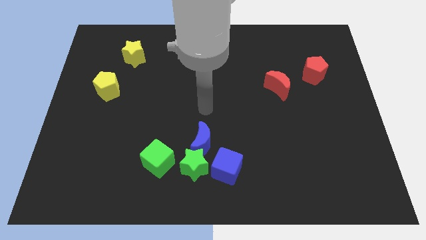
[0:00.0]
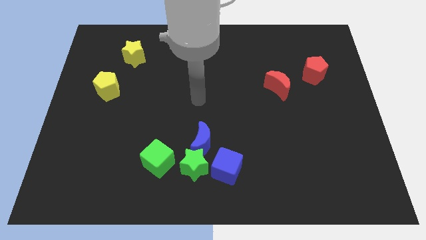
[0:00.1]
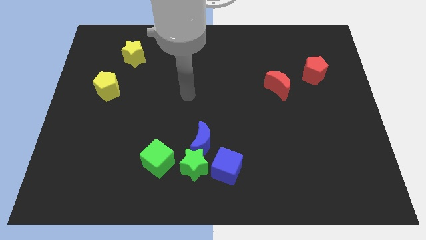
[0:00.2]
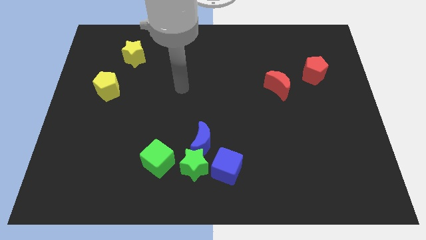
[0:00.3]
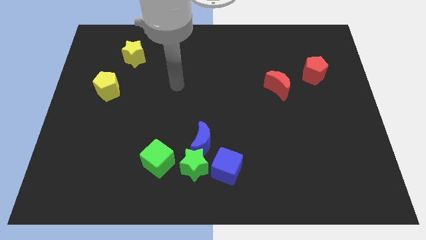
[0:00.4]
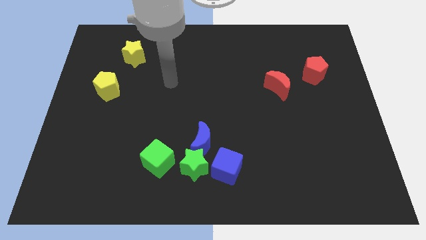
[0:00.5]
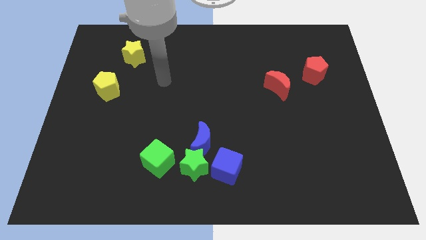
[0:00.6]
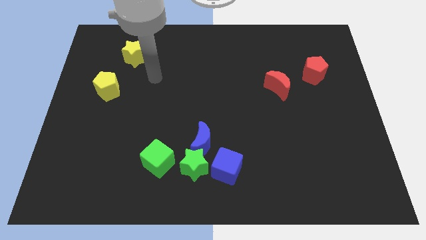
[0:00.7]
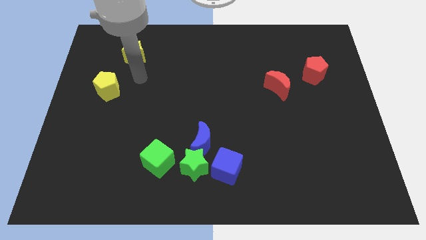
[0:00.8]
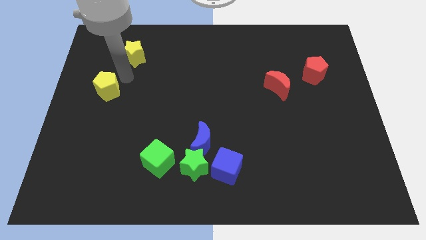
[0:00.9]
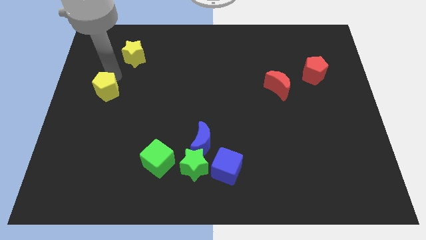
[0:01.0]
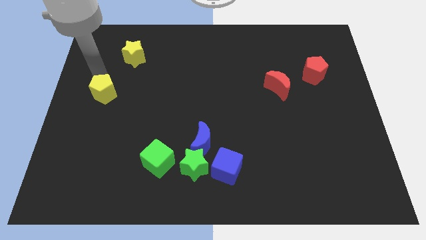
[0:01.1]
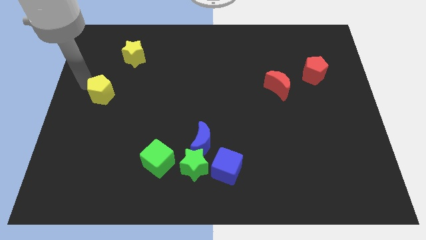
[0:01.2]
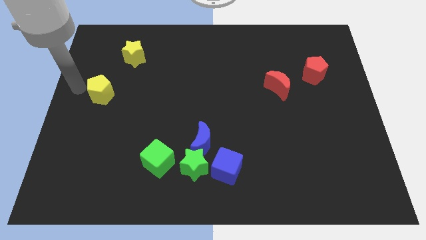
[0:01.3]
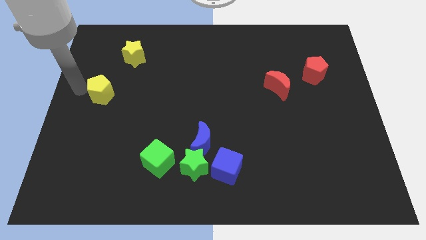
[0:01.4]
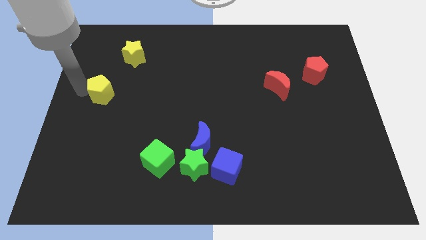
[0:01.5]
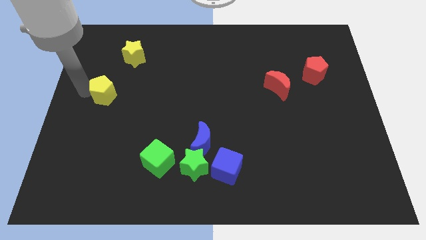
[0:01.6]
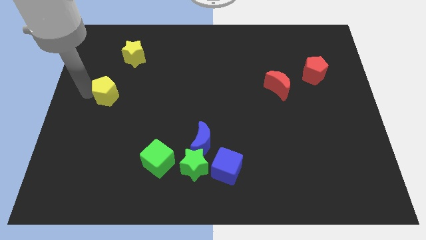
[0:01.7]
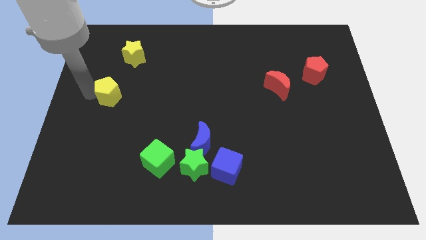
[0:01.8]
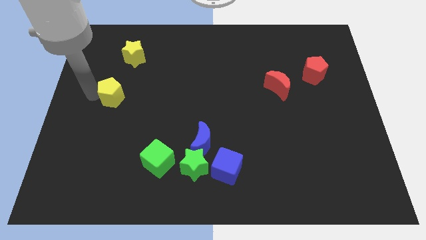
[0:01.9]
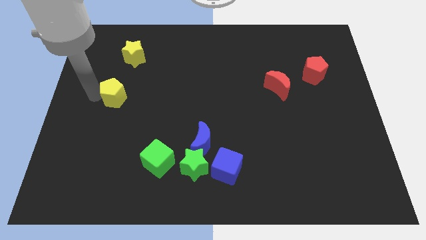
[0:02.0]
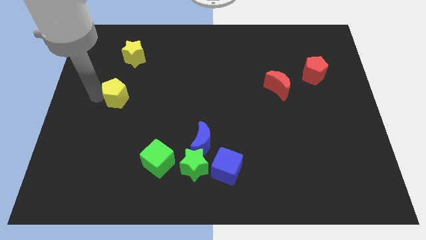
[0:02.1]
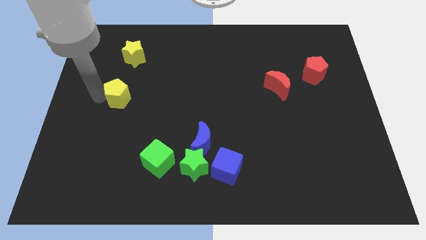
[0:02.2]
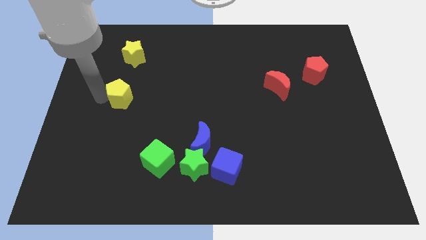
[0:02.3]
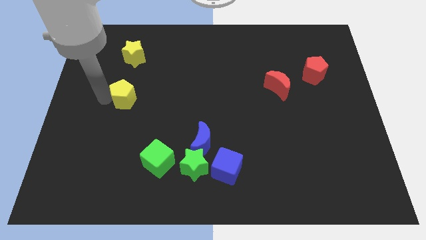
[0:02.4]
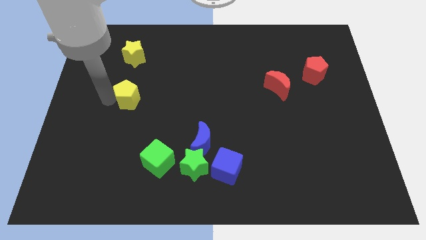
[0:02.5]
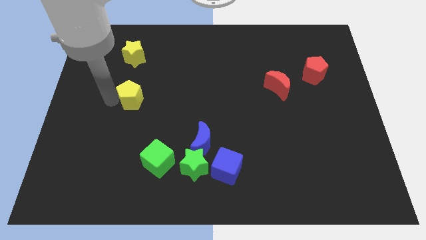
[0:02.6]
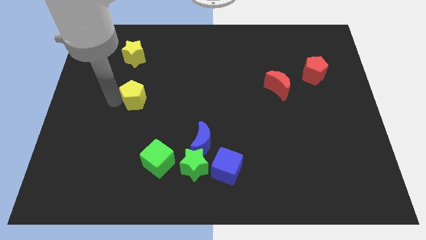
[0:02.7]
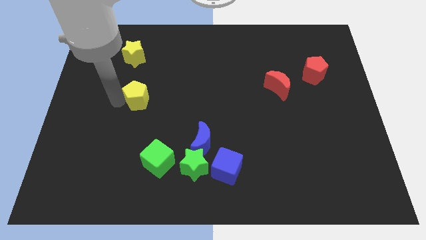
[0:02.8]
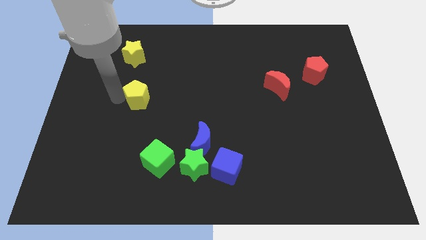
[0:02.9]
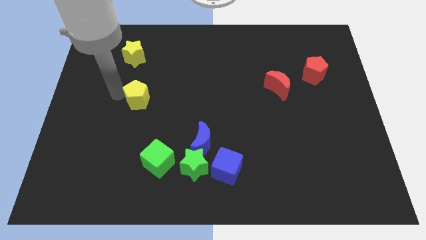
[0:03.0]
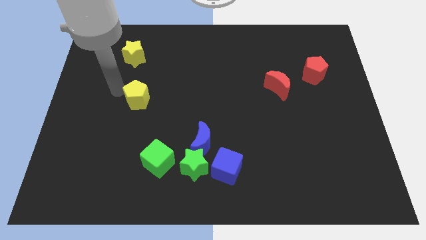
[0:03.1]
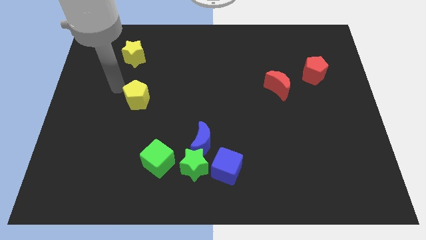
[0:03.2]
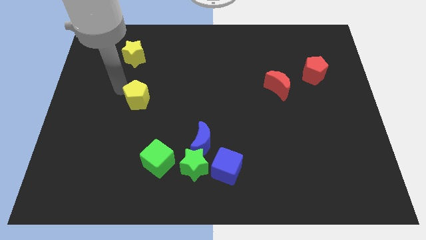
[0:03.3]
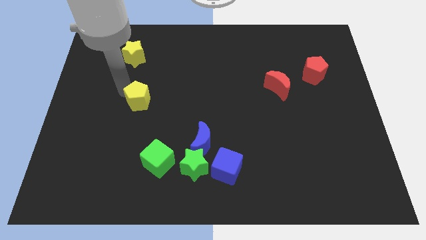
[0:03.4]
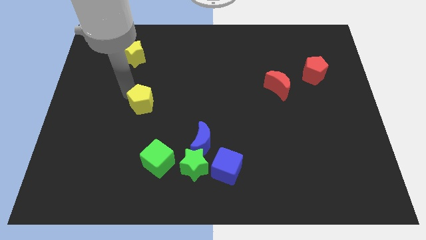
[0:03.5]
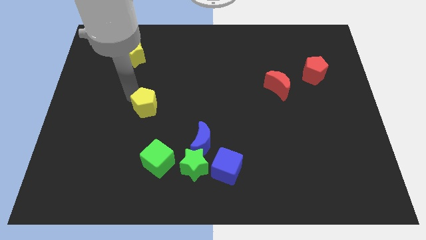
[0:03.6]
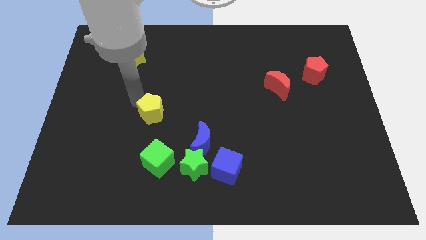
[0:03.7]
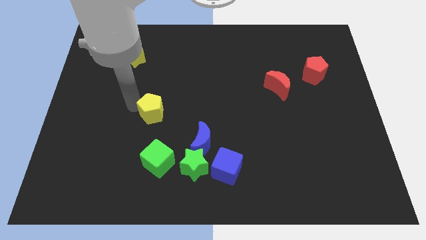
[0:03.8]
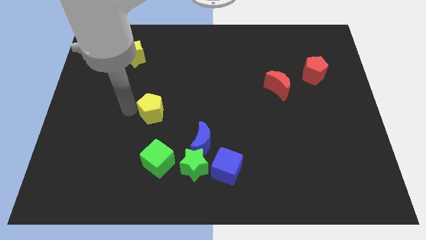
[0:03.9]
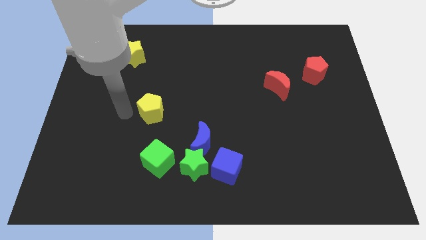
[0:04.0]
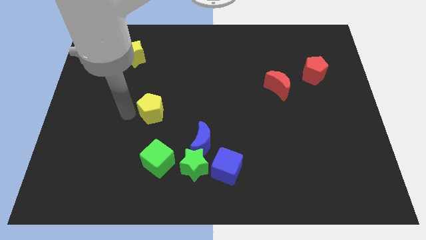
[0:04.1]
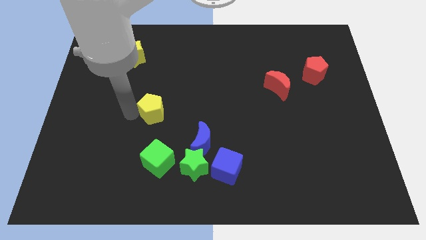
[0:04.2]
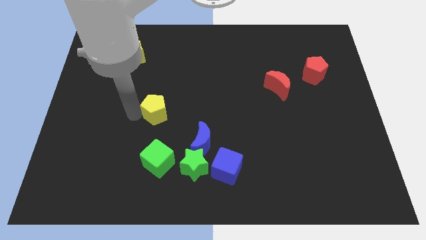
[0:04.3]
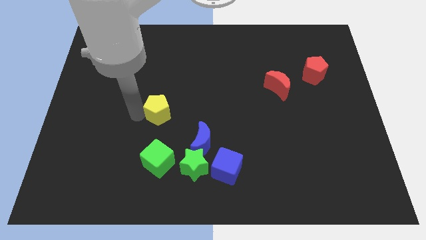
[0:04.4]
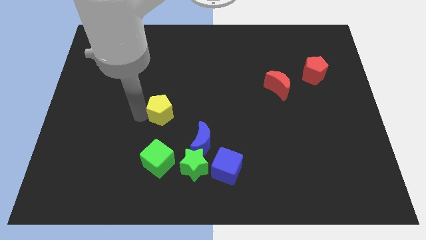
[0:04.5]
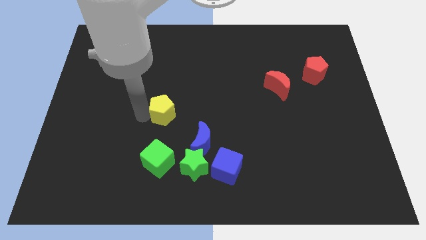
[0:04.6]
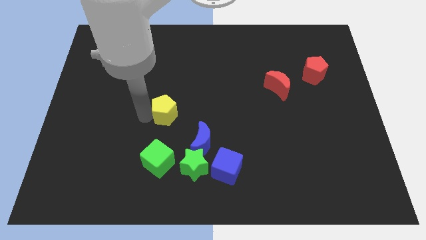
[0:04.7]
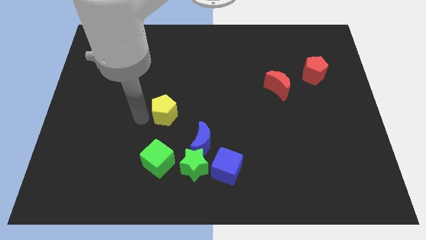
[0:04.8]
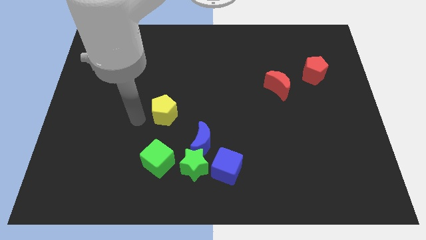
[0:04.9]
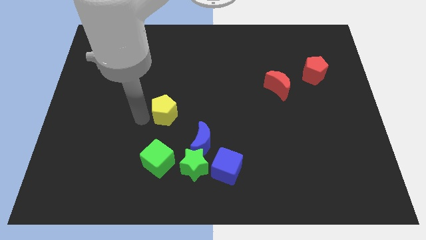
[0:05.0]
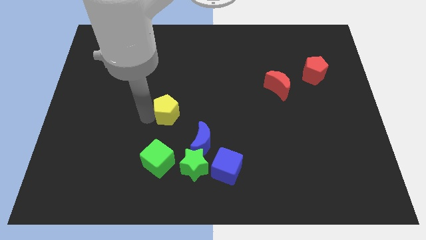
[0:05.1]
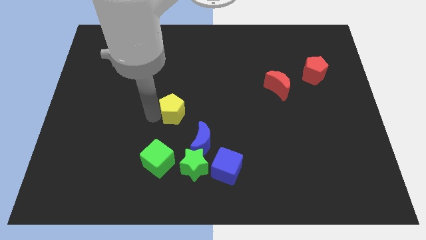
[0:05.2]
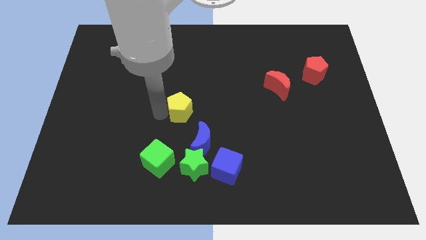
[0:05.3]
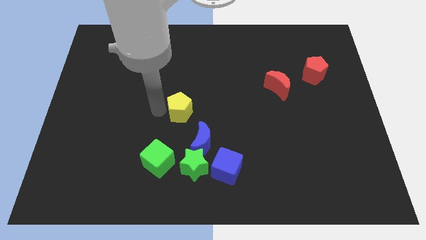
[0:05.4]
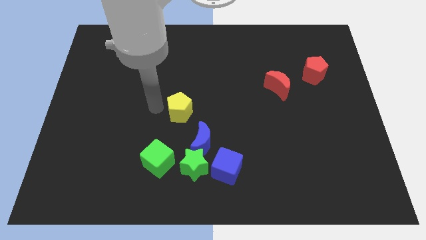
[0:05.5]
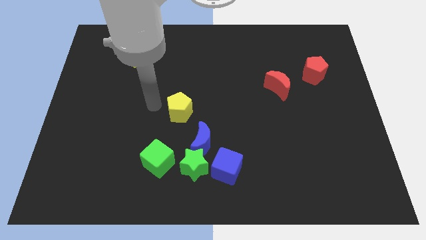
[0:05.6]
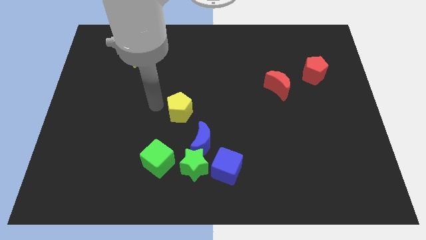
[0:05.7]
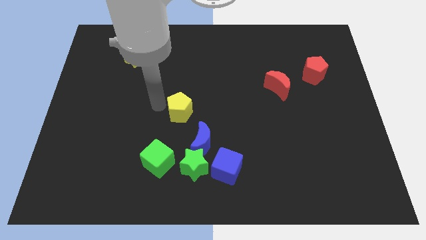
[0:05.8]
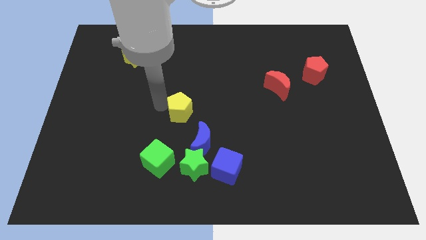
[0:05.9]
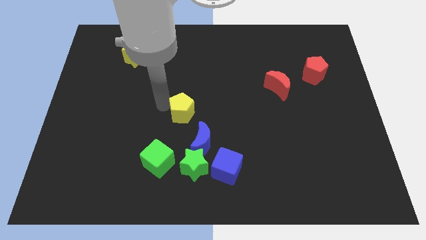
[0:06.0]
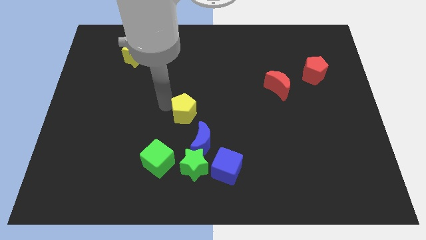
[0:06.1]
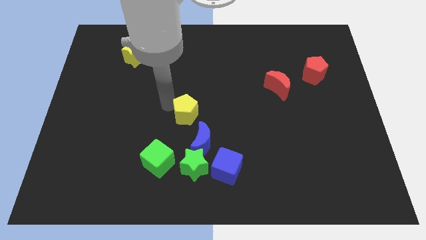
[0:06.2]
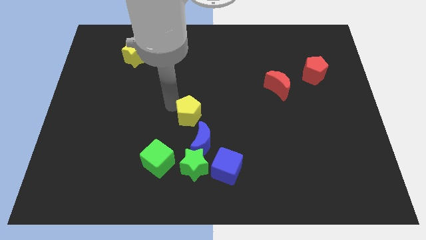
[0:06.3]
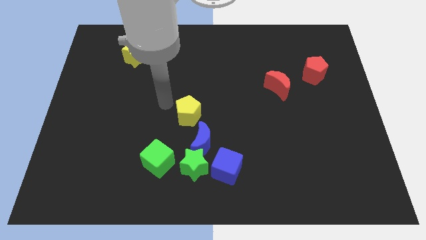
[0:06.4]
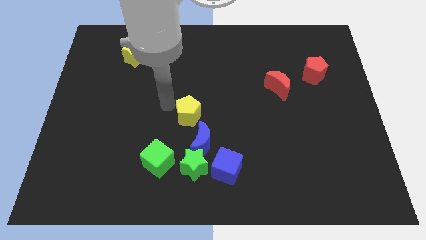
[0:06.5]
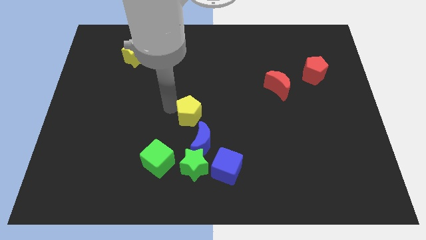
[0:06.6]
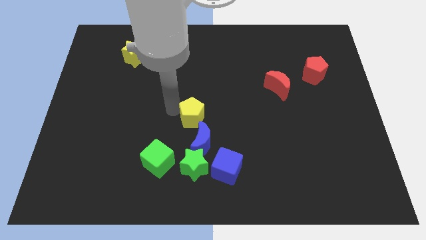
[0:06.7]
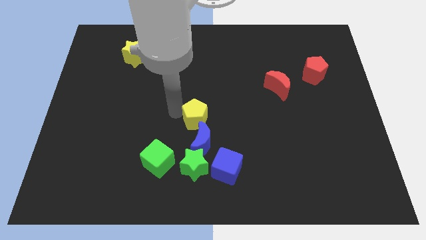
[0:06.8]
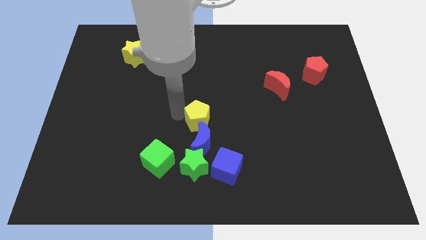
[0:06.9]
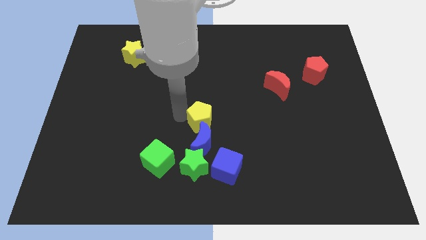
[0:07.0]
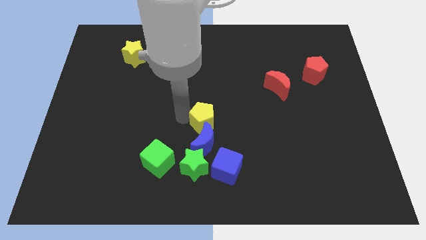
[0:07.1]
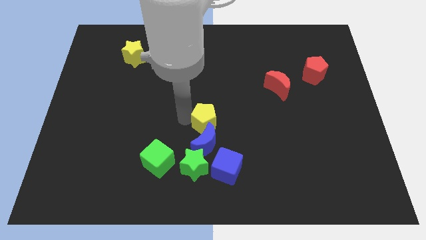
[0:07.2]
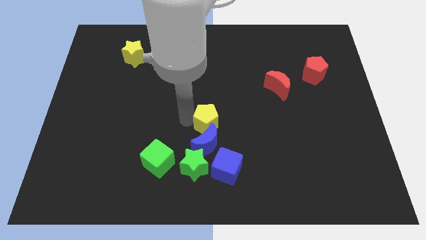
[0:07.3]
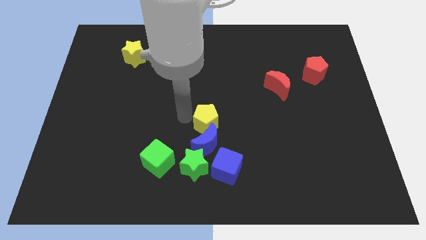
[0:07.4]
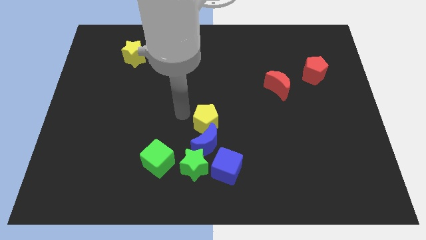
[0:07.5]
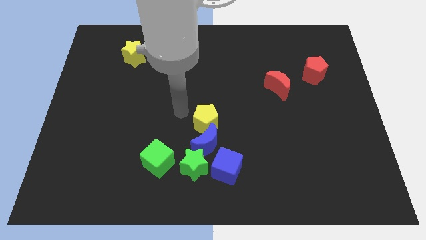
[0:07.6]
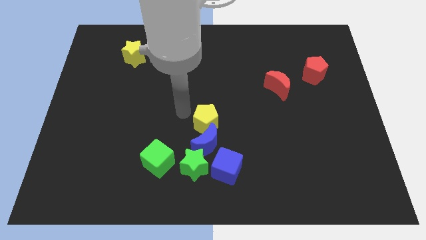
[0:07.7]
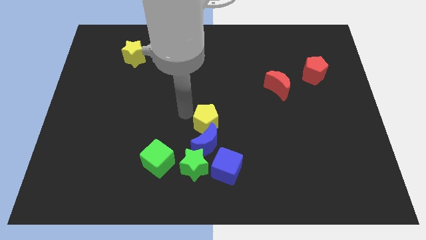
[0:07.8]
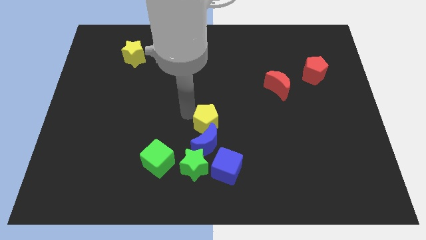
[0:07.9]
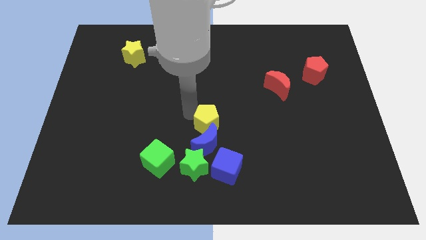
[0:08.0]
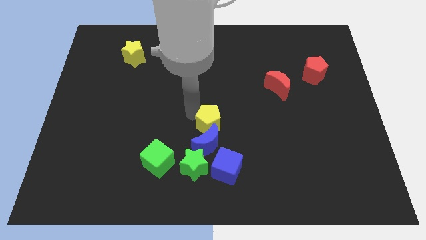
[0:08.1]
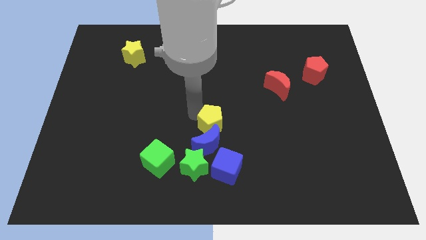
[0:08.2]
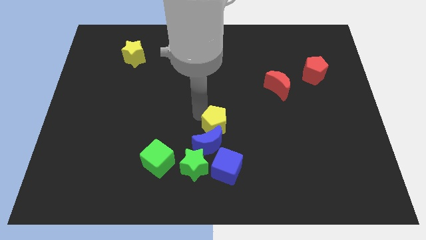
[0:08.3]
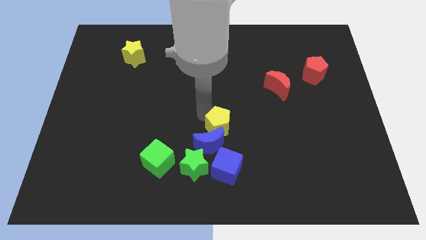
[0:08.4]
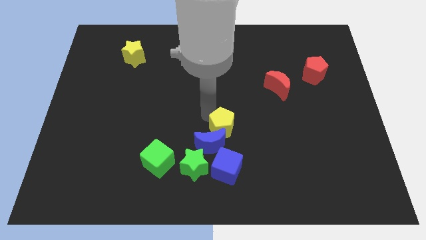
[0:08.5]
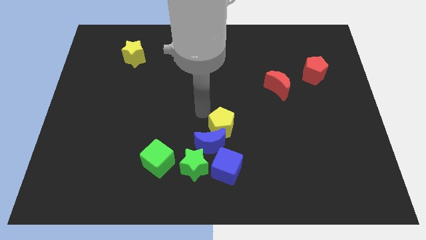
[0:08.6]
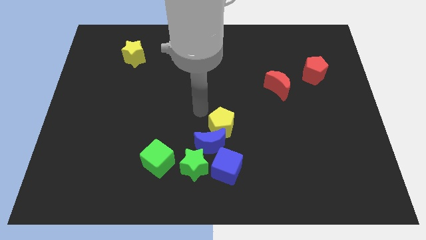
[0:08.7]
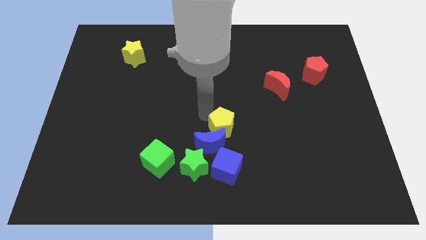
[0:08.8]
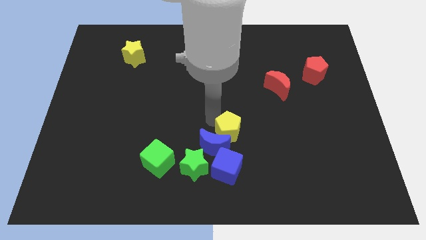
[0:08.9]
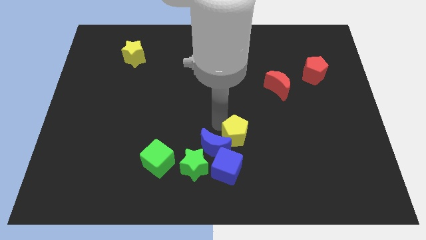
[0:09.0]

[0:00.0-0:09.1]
put the yellow pentagon diagonally up and to the right of the blue cube
